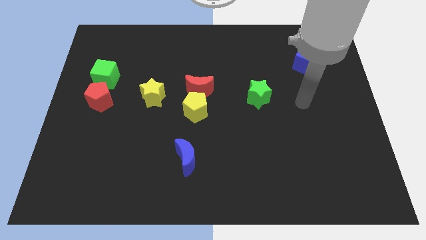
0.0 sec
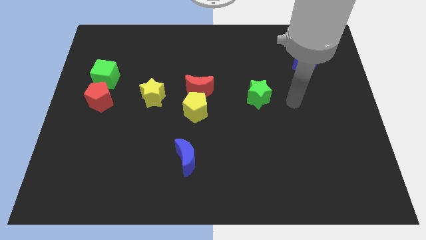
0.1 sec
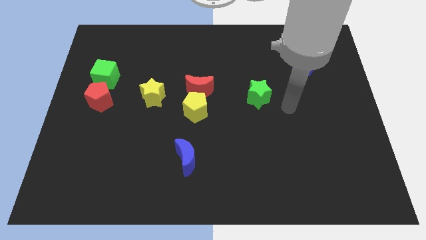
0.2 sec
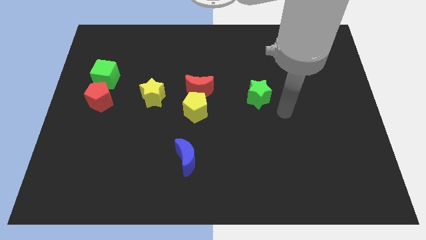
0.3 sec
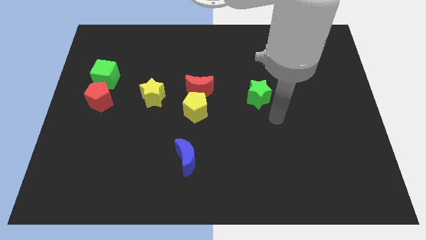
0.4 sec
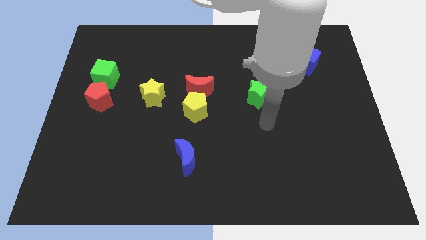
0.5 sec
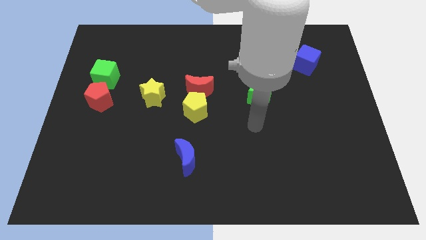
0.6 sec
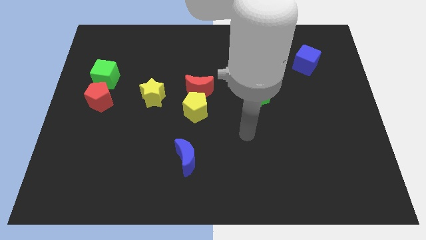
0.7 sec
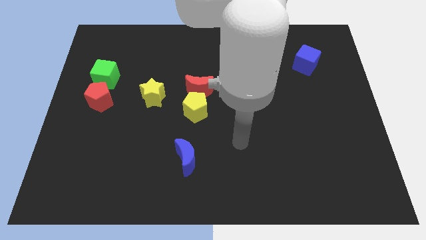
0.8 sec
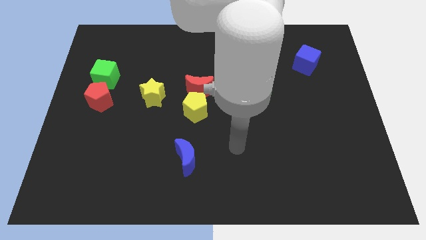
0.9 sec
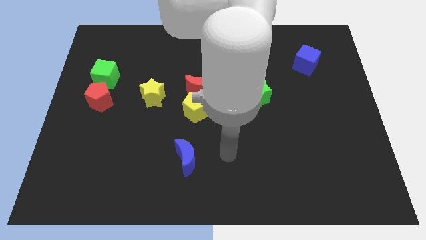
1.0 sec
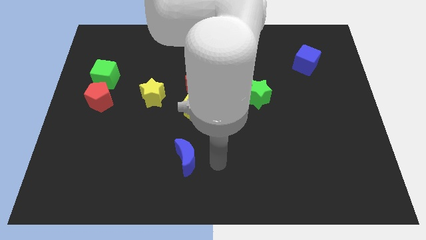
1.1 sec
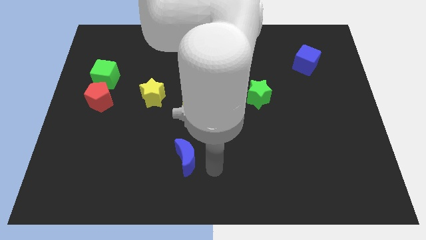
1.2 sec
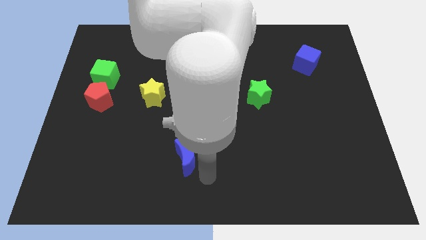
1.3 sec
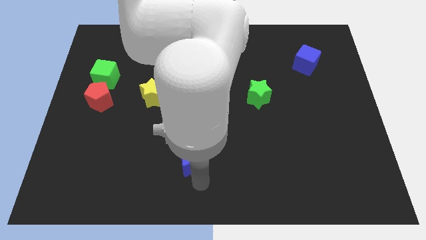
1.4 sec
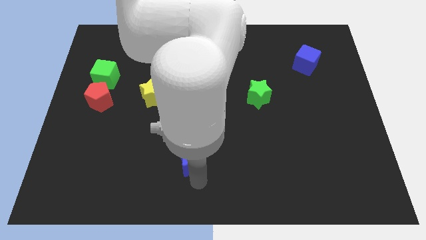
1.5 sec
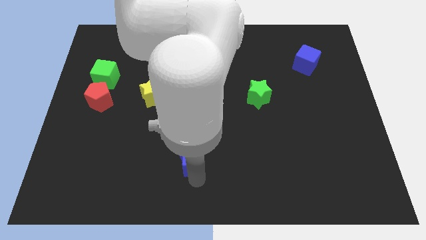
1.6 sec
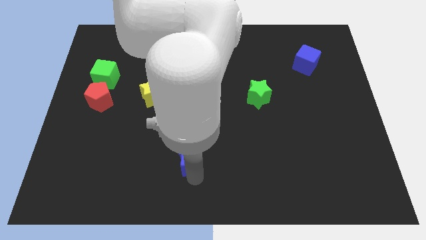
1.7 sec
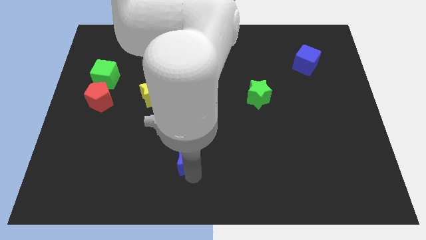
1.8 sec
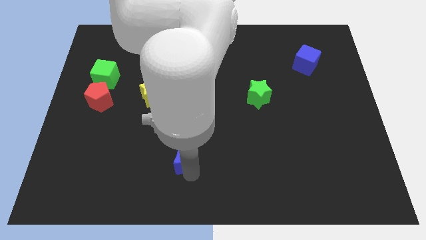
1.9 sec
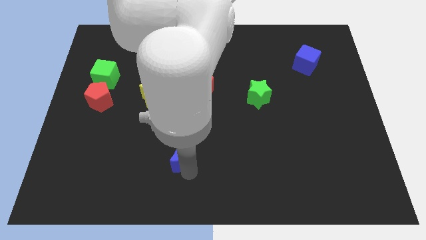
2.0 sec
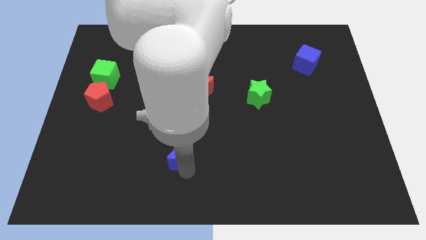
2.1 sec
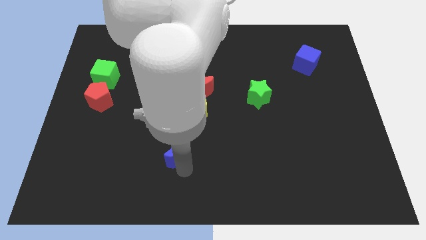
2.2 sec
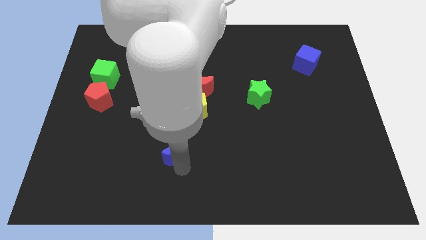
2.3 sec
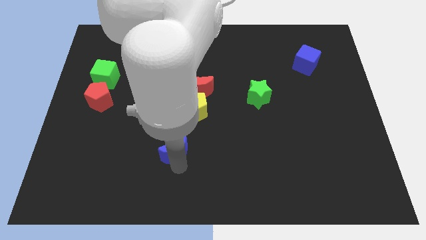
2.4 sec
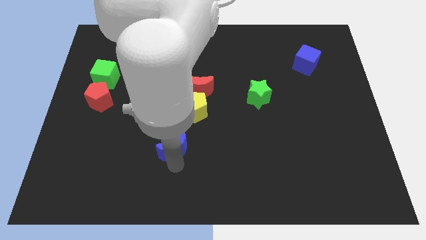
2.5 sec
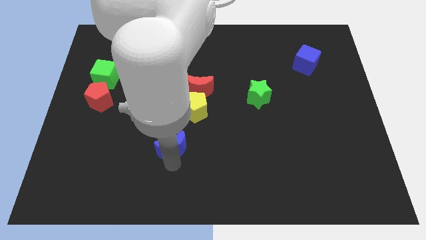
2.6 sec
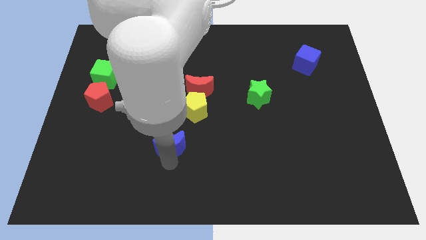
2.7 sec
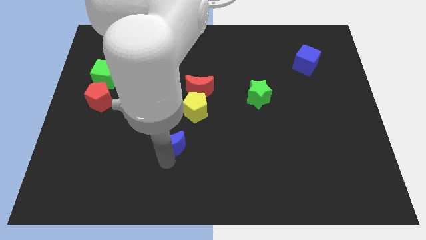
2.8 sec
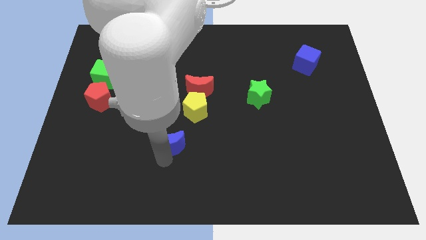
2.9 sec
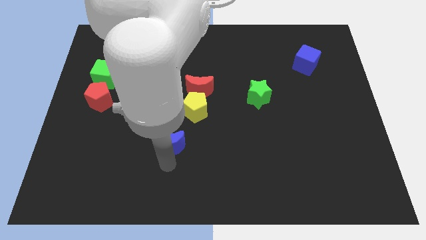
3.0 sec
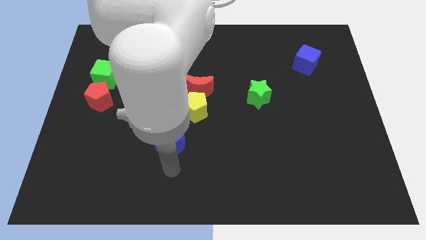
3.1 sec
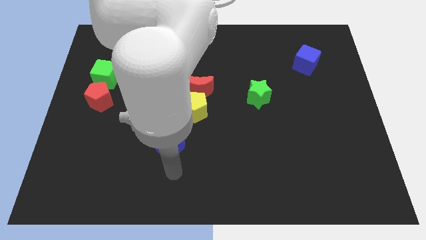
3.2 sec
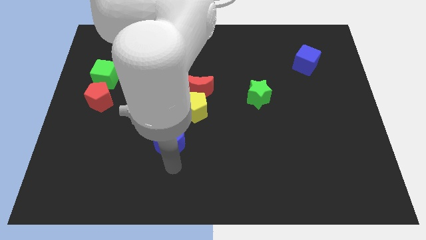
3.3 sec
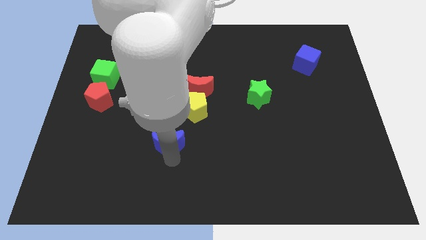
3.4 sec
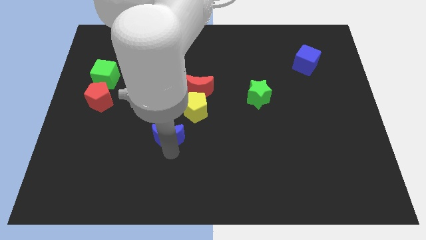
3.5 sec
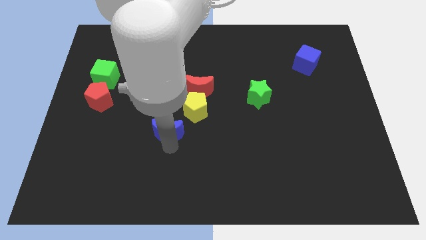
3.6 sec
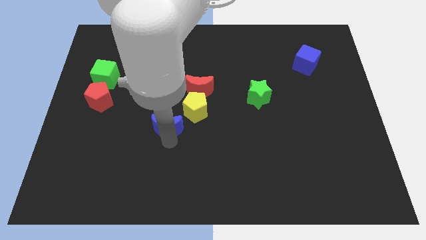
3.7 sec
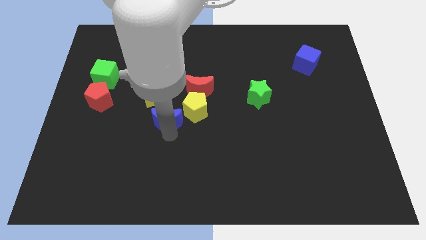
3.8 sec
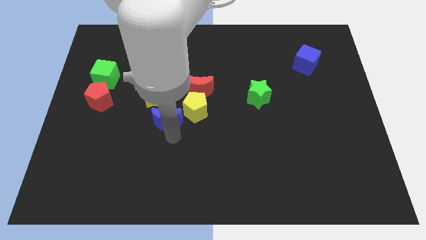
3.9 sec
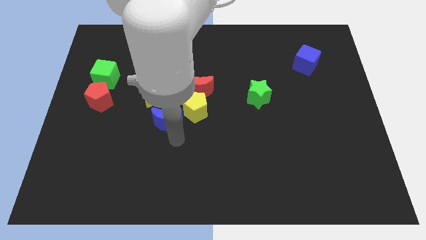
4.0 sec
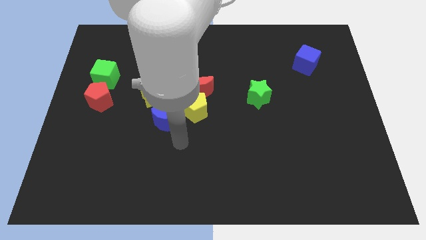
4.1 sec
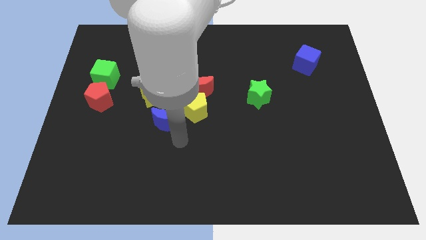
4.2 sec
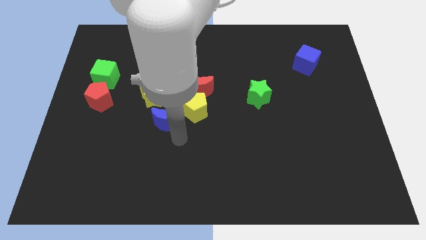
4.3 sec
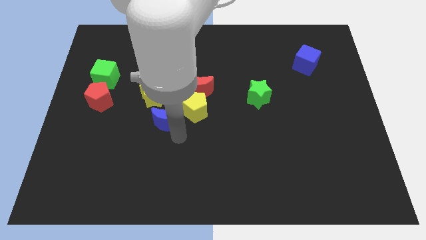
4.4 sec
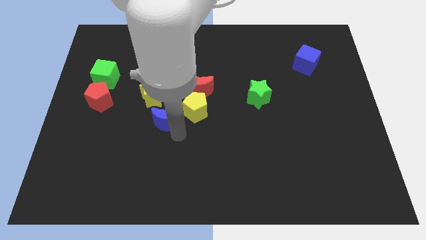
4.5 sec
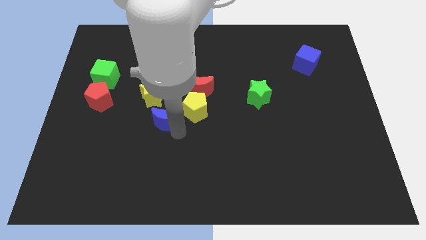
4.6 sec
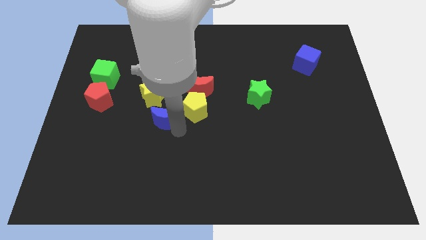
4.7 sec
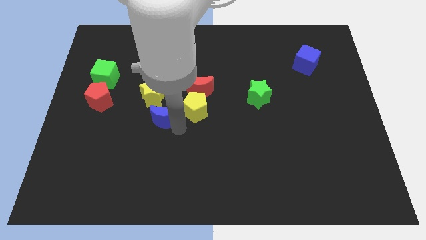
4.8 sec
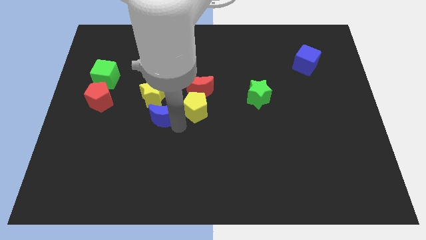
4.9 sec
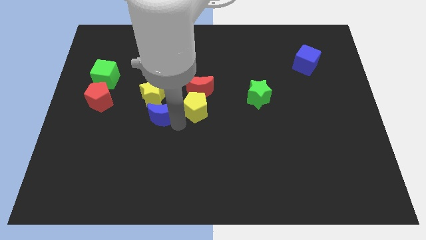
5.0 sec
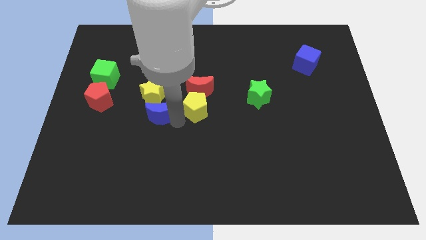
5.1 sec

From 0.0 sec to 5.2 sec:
slide the blue moon towards the yellow star

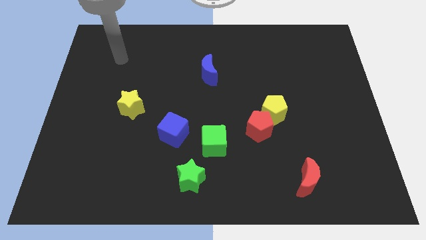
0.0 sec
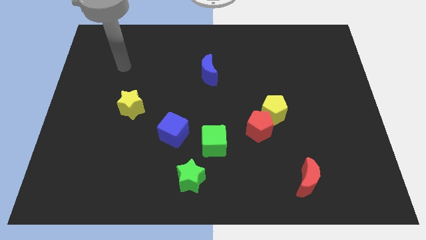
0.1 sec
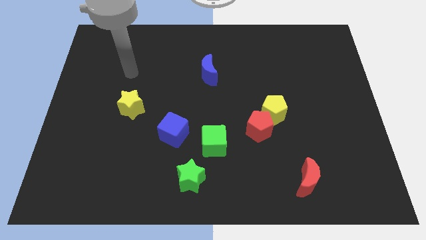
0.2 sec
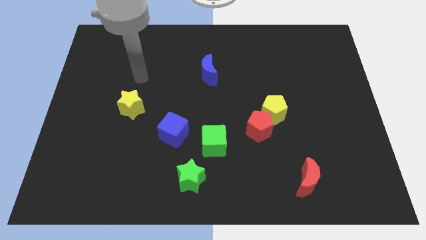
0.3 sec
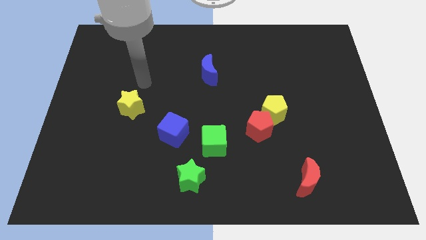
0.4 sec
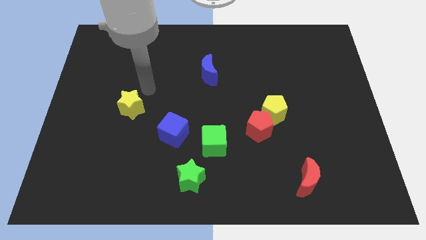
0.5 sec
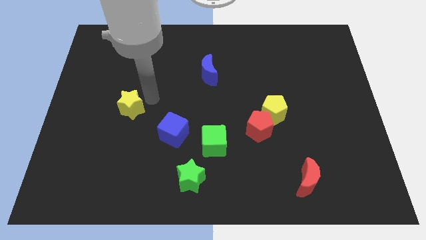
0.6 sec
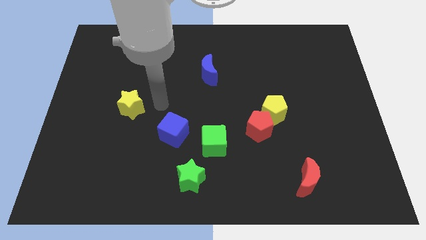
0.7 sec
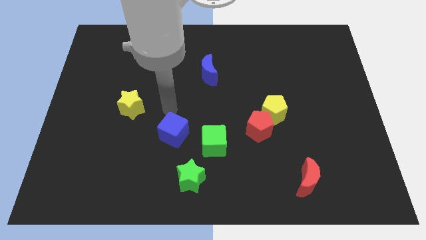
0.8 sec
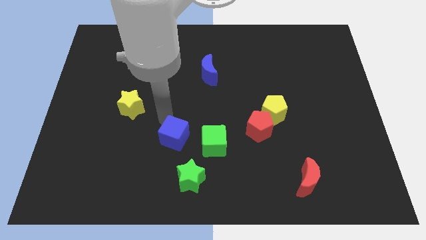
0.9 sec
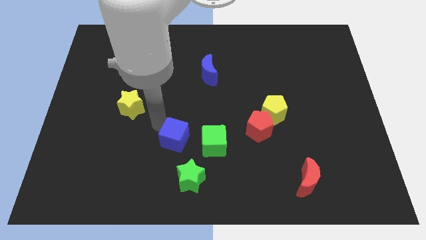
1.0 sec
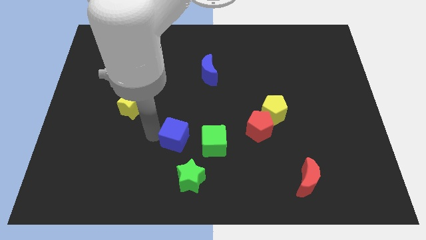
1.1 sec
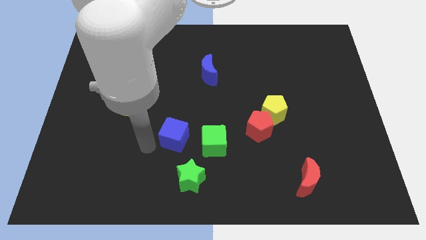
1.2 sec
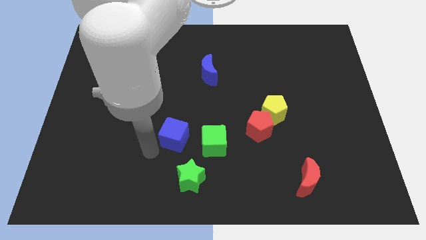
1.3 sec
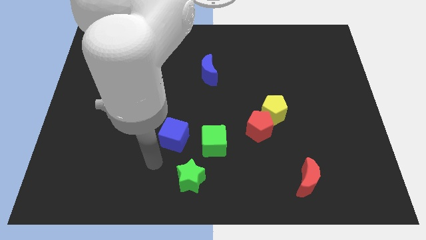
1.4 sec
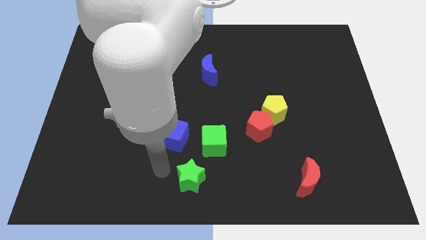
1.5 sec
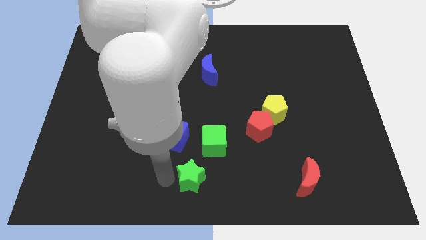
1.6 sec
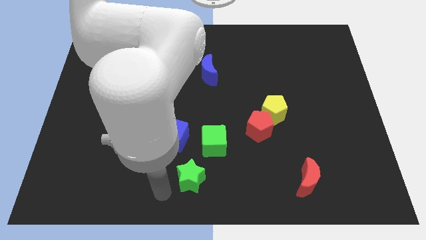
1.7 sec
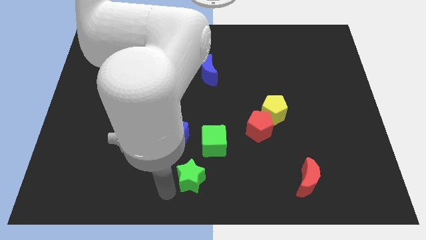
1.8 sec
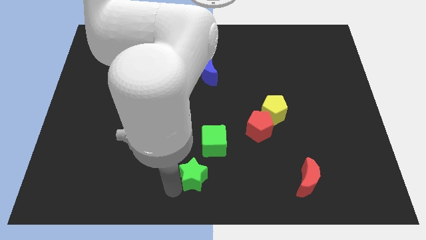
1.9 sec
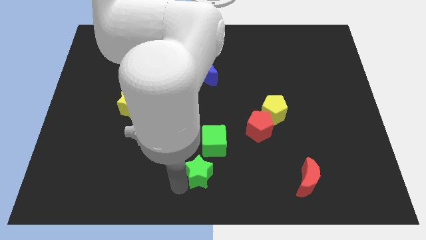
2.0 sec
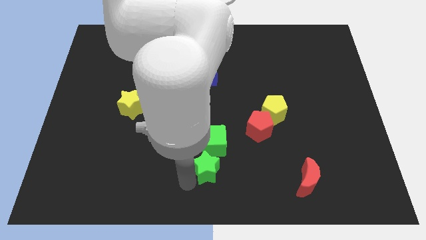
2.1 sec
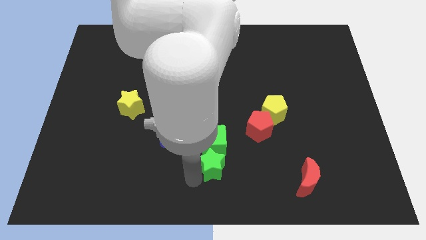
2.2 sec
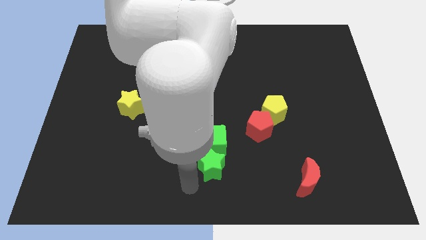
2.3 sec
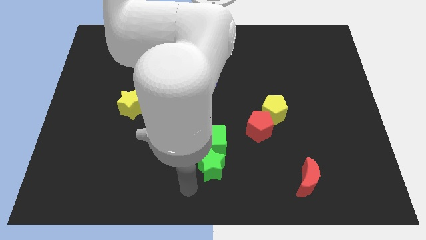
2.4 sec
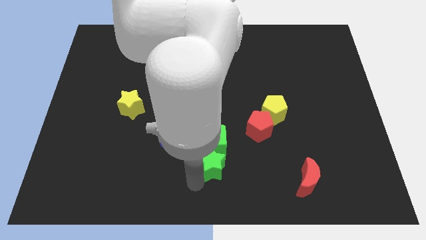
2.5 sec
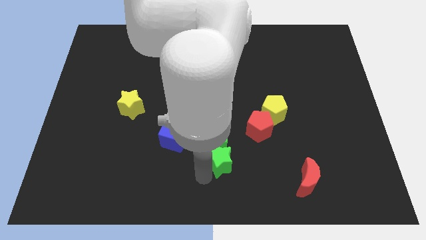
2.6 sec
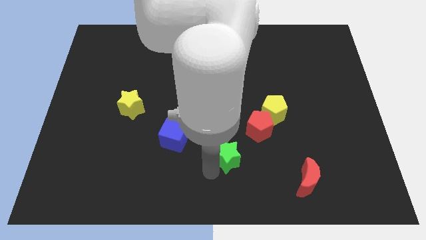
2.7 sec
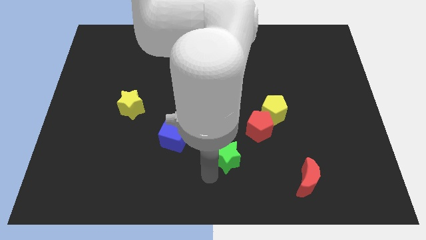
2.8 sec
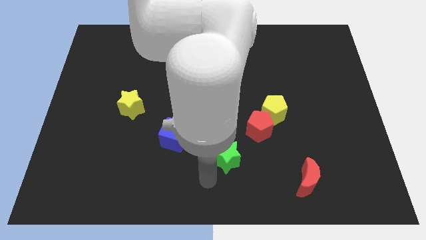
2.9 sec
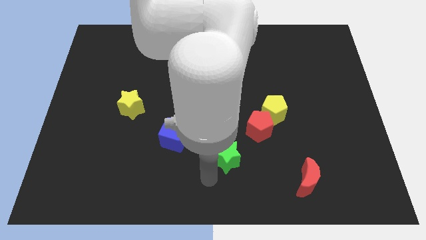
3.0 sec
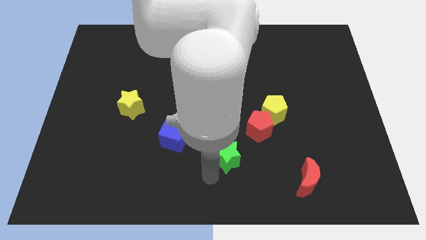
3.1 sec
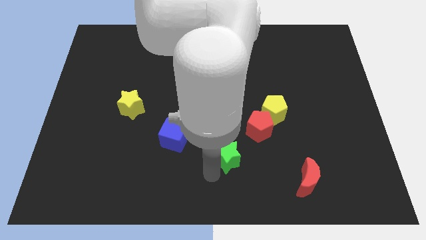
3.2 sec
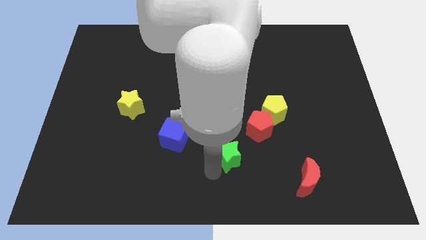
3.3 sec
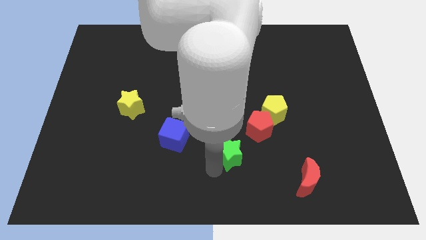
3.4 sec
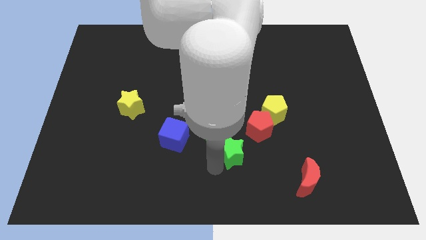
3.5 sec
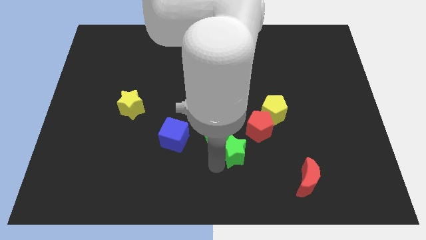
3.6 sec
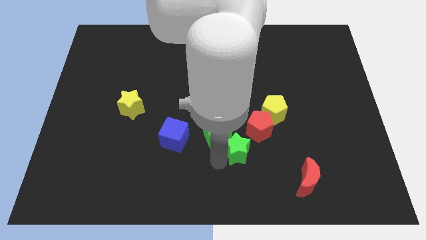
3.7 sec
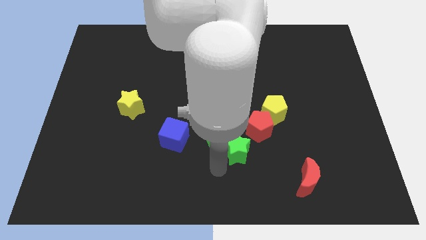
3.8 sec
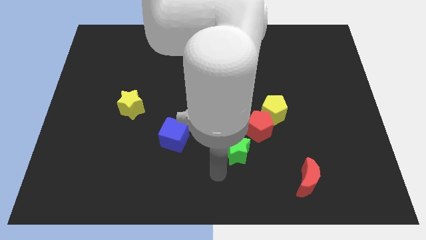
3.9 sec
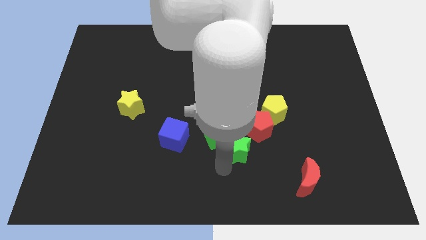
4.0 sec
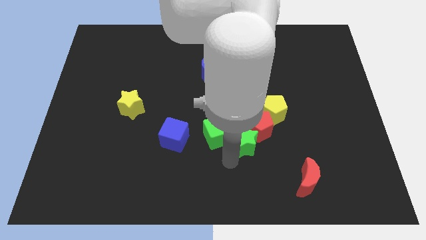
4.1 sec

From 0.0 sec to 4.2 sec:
push the green star towards the red pentagon
